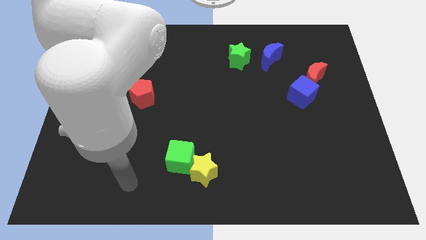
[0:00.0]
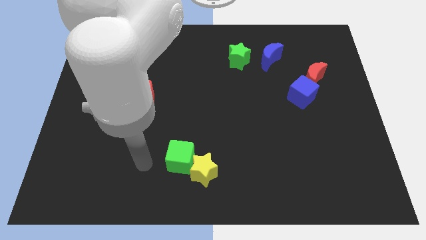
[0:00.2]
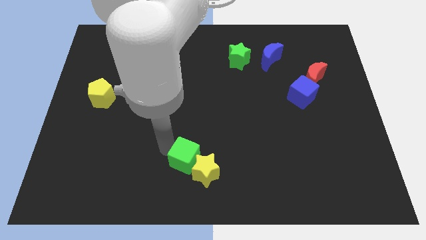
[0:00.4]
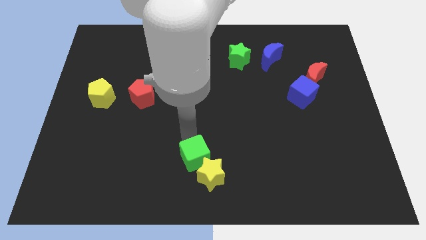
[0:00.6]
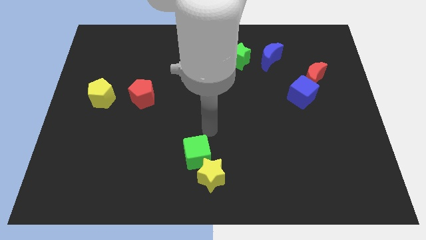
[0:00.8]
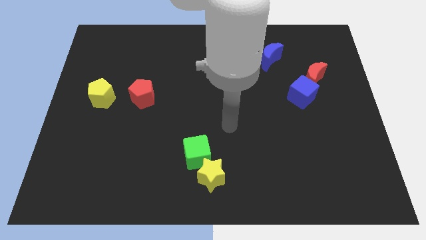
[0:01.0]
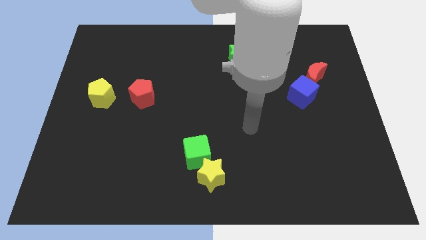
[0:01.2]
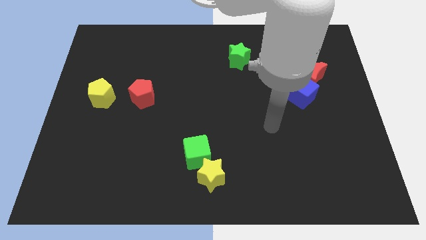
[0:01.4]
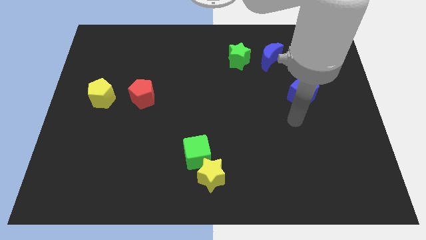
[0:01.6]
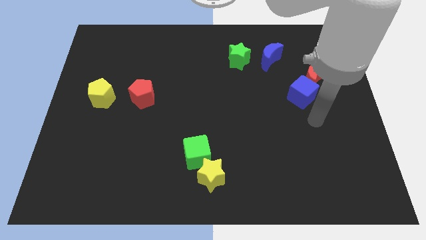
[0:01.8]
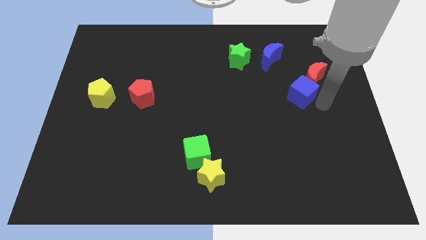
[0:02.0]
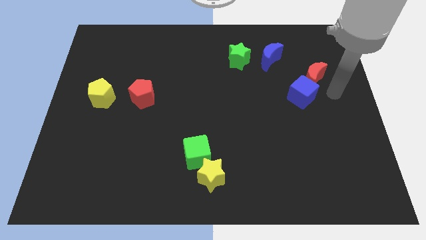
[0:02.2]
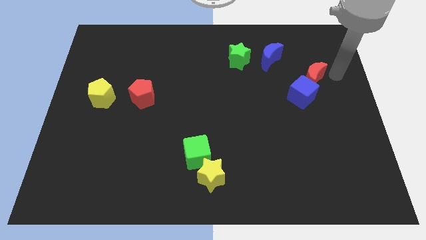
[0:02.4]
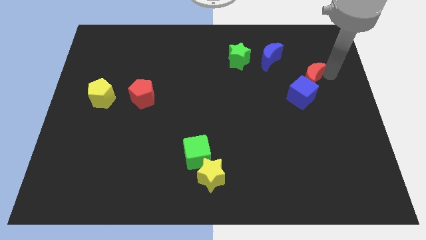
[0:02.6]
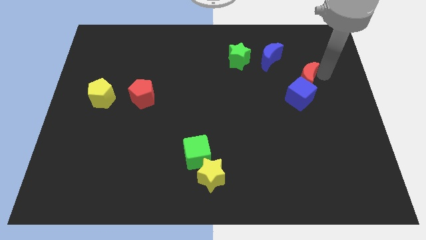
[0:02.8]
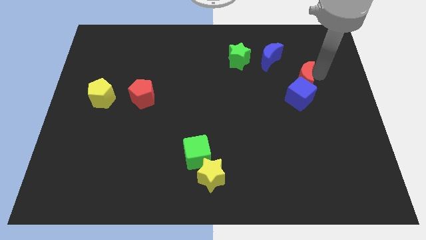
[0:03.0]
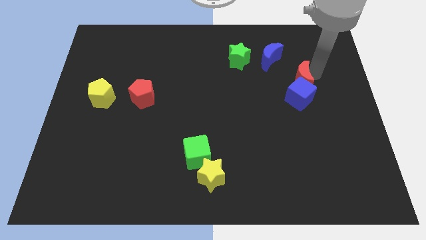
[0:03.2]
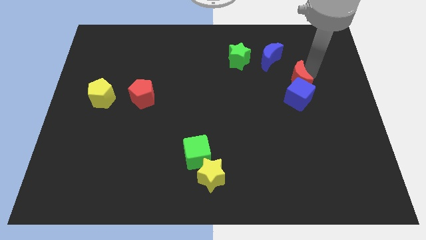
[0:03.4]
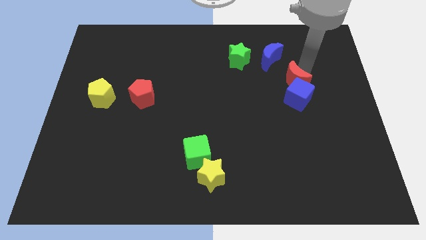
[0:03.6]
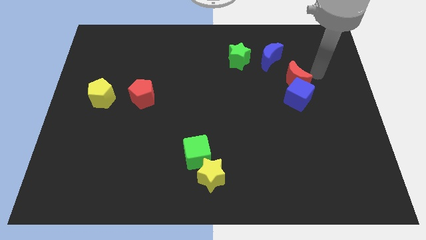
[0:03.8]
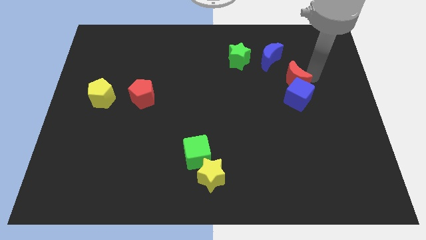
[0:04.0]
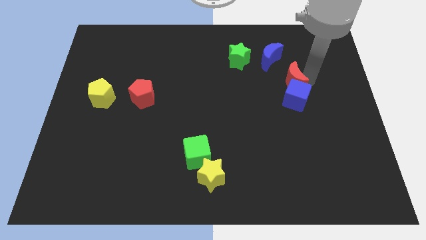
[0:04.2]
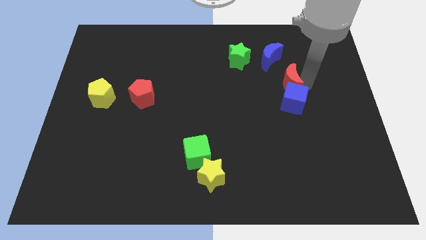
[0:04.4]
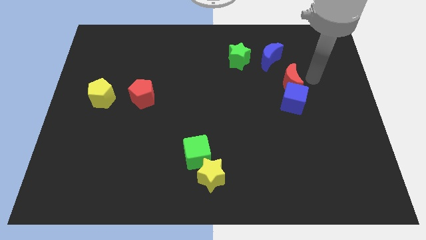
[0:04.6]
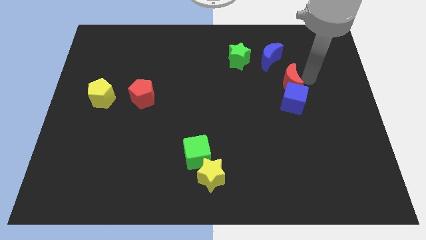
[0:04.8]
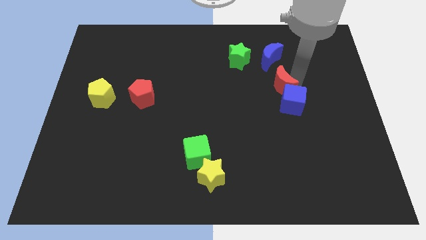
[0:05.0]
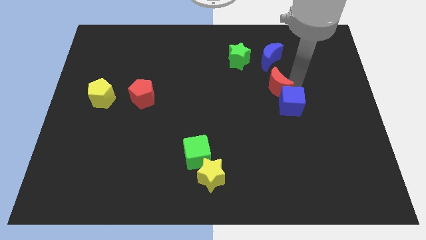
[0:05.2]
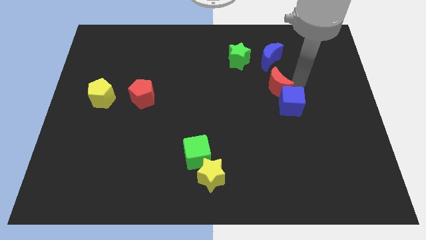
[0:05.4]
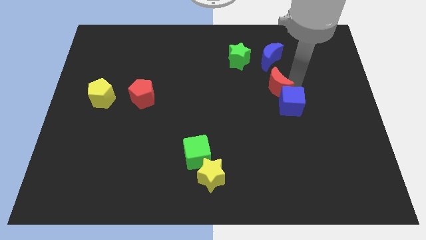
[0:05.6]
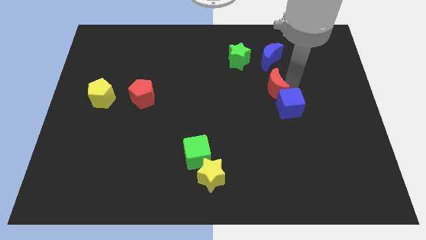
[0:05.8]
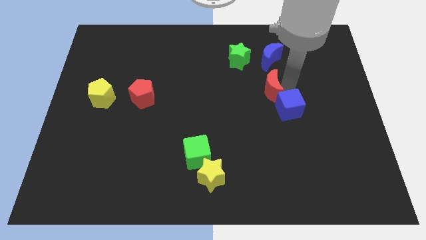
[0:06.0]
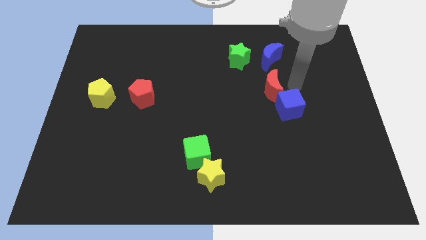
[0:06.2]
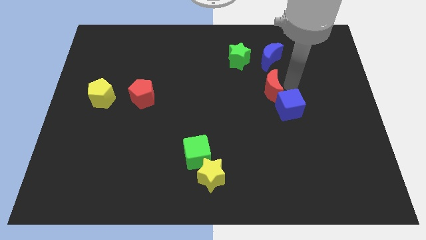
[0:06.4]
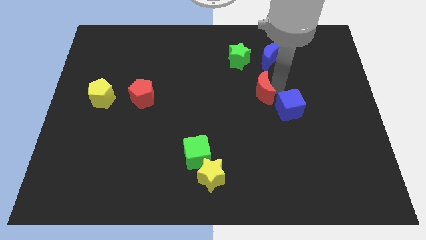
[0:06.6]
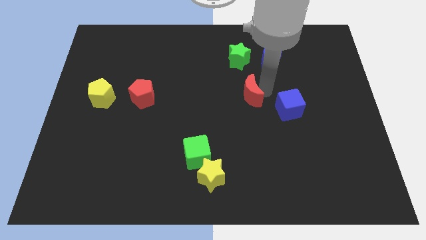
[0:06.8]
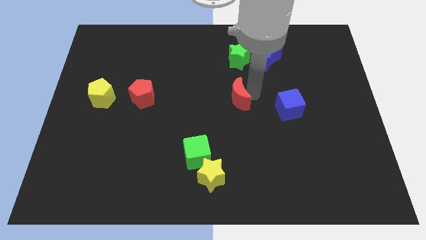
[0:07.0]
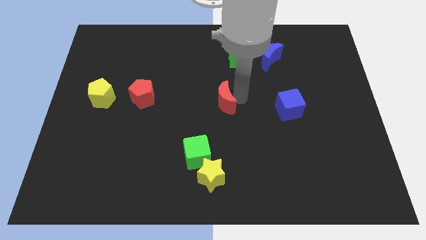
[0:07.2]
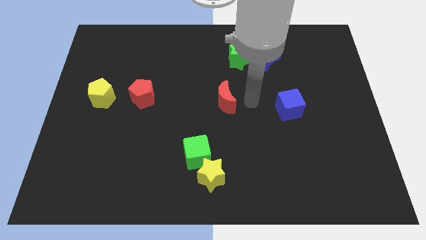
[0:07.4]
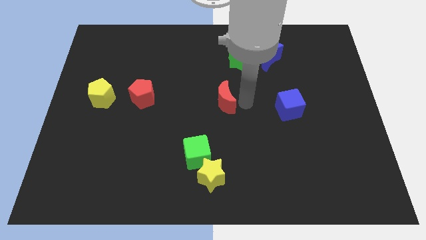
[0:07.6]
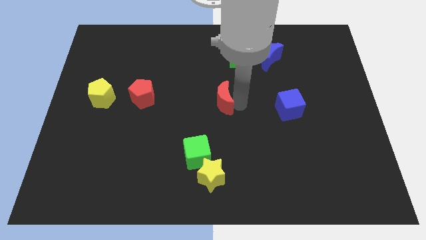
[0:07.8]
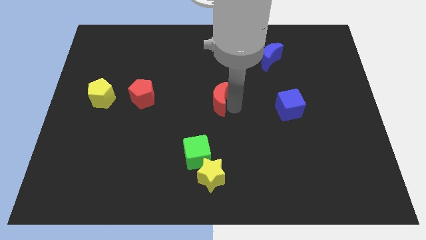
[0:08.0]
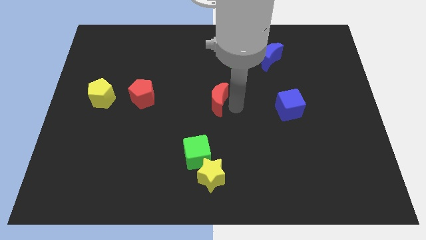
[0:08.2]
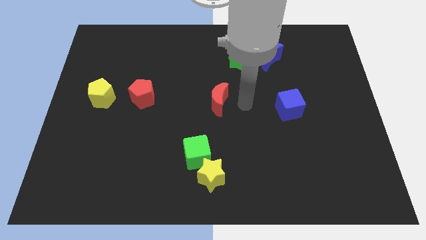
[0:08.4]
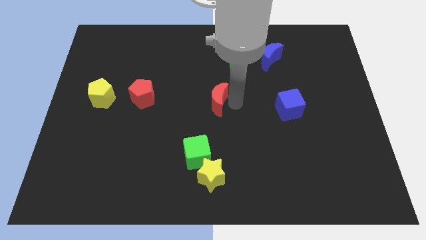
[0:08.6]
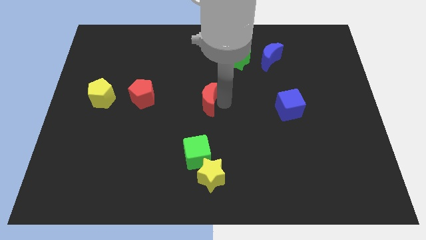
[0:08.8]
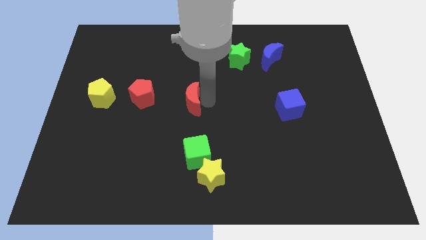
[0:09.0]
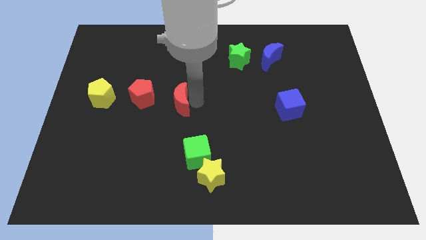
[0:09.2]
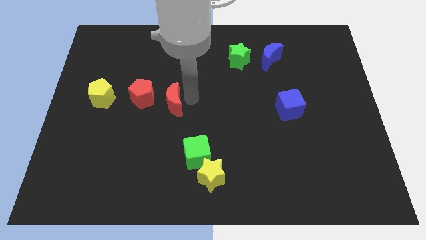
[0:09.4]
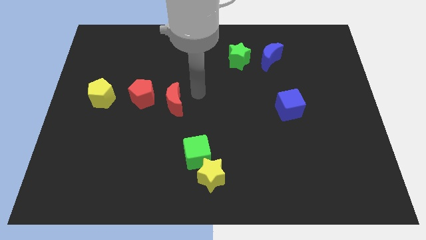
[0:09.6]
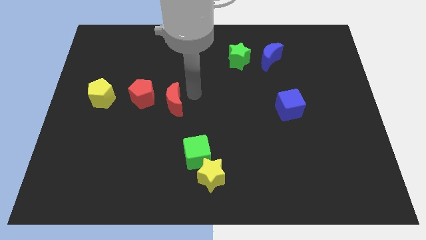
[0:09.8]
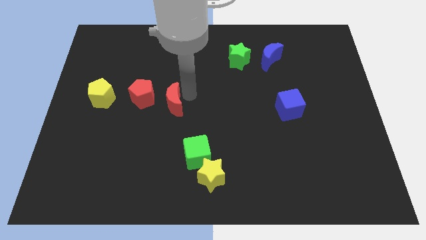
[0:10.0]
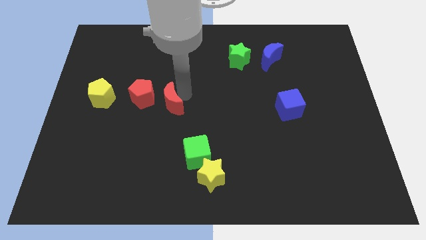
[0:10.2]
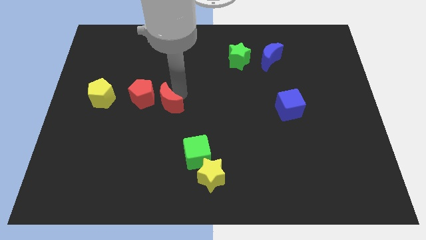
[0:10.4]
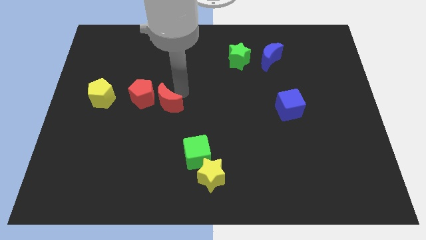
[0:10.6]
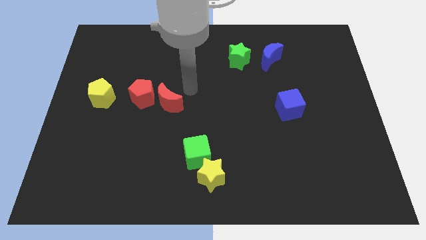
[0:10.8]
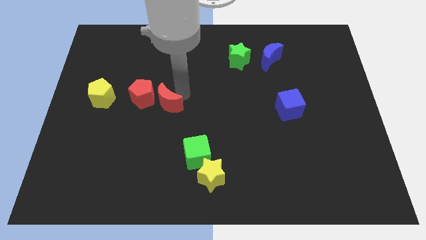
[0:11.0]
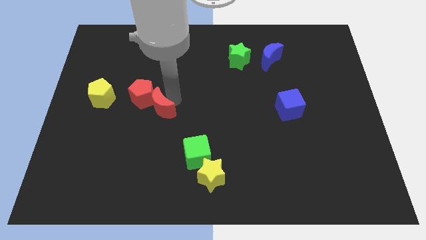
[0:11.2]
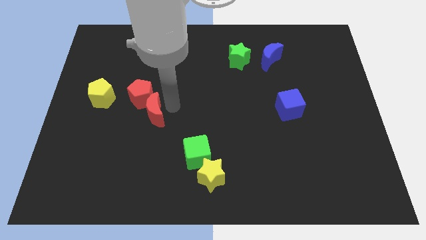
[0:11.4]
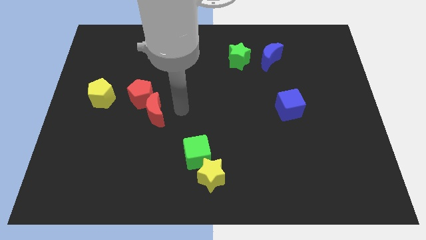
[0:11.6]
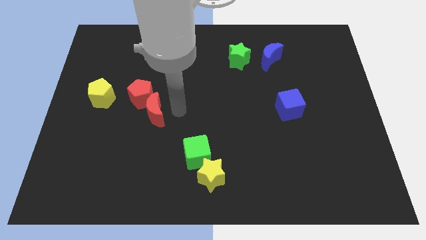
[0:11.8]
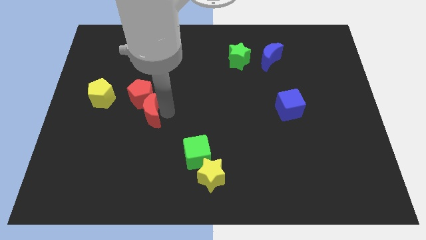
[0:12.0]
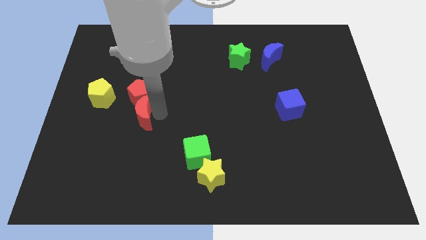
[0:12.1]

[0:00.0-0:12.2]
put the red moon to the bottom right side of the yellow pentagon

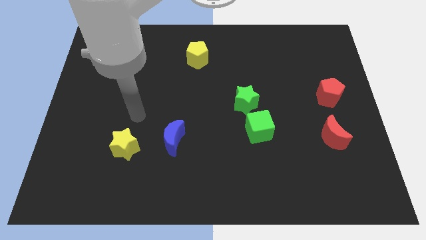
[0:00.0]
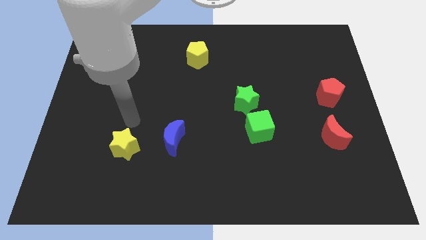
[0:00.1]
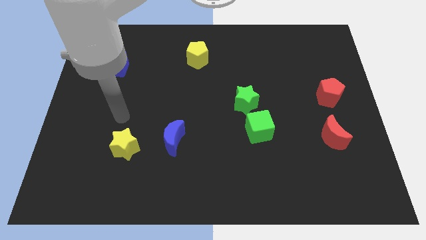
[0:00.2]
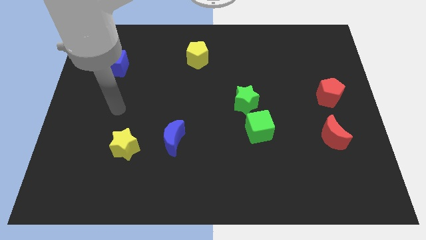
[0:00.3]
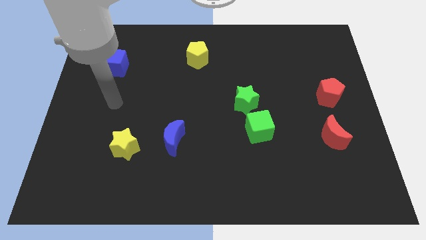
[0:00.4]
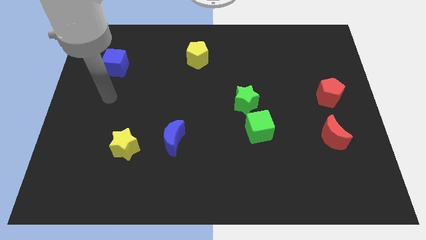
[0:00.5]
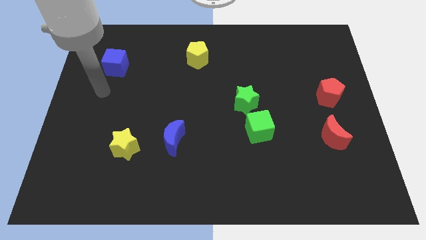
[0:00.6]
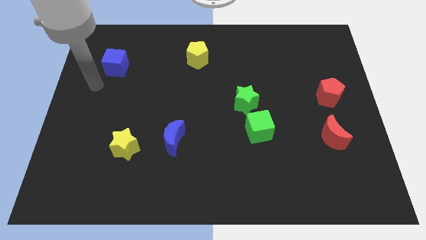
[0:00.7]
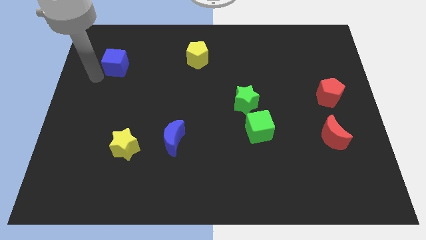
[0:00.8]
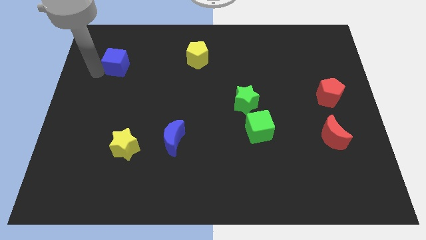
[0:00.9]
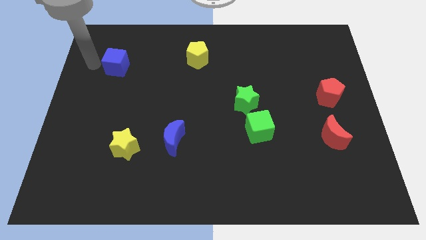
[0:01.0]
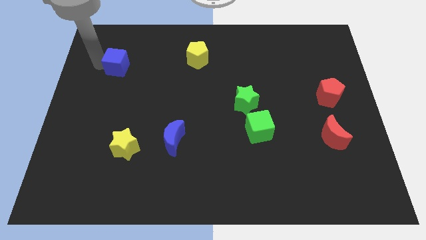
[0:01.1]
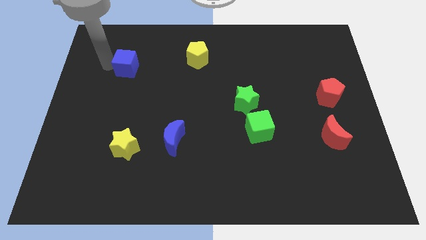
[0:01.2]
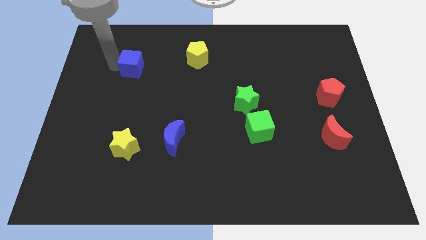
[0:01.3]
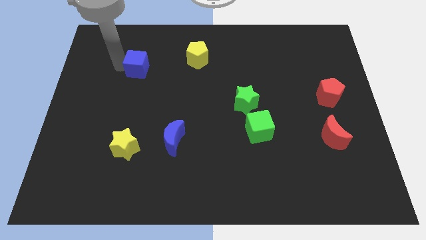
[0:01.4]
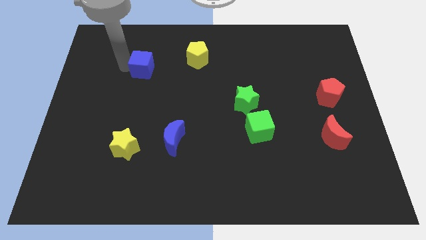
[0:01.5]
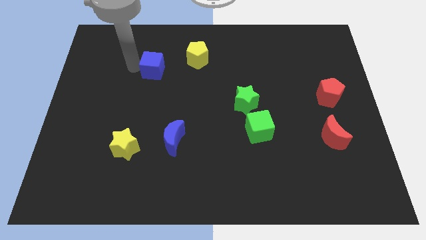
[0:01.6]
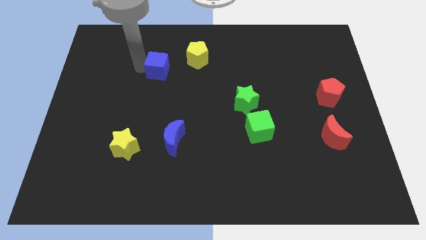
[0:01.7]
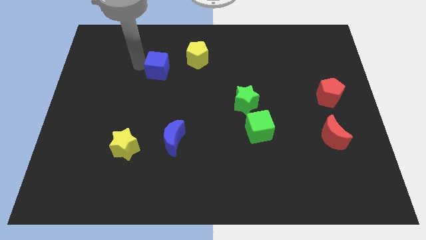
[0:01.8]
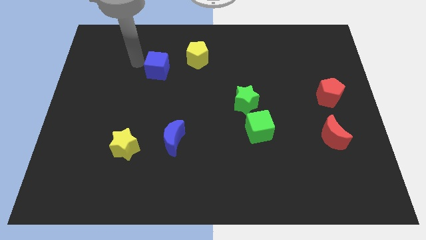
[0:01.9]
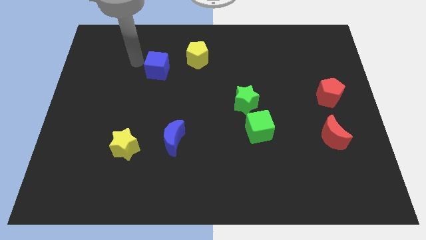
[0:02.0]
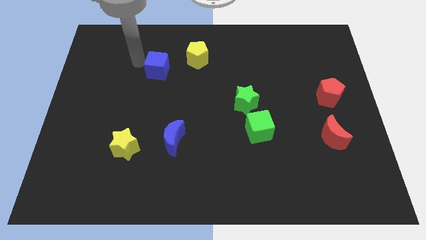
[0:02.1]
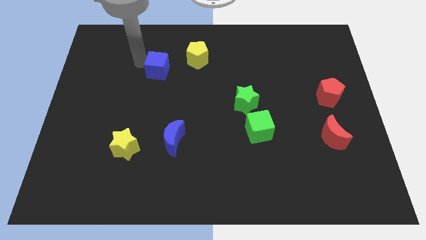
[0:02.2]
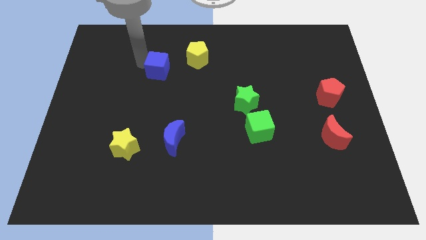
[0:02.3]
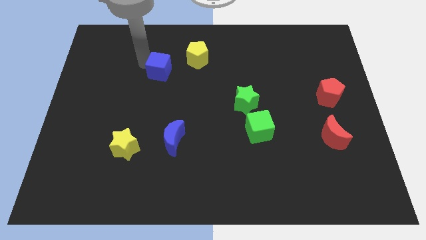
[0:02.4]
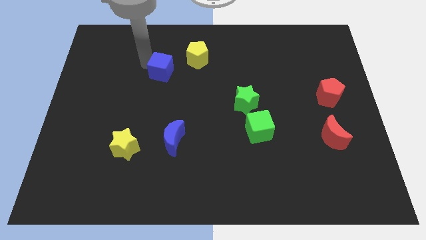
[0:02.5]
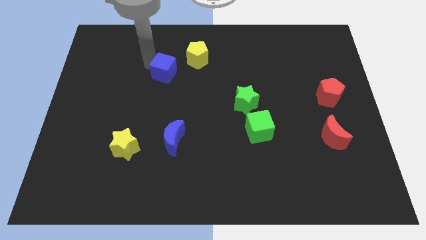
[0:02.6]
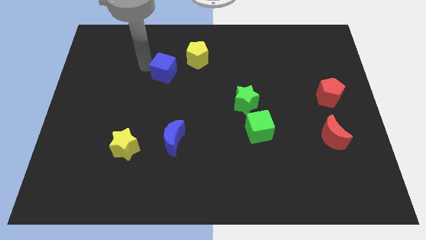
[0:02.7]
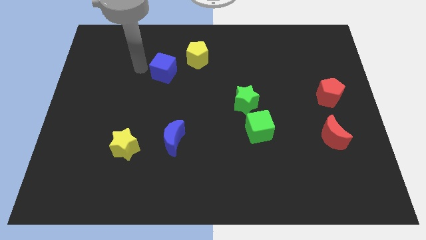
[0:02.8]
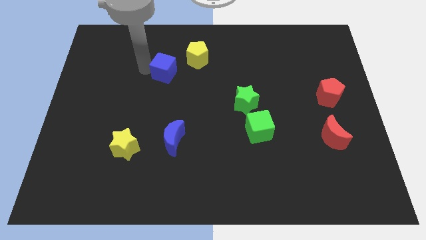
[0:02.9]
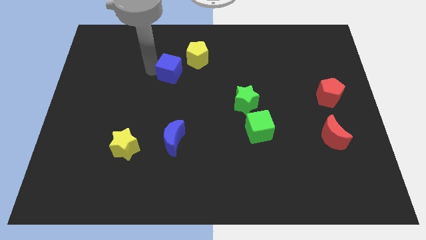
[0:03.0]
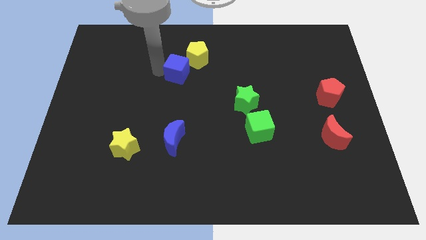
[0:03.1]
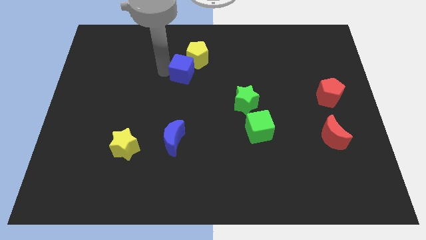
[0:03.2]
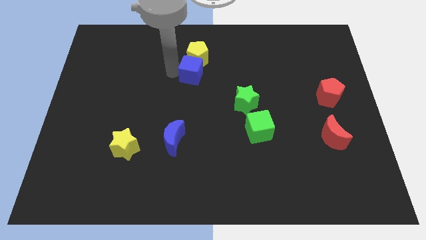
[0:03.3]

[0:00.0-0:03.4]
move the blue cube to the bottom right side of the yellow pentagon
